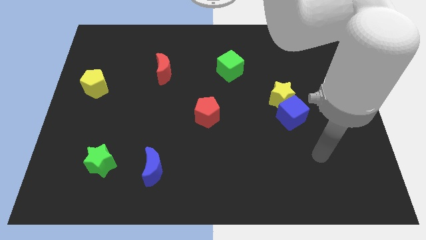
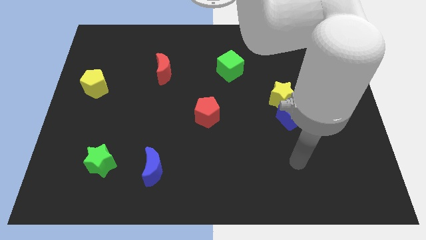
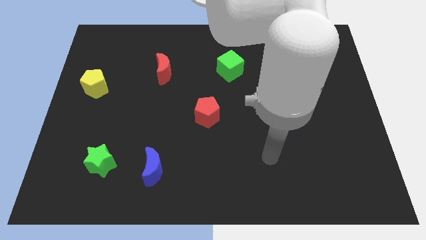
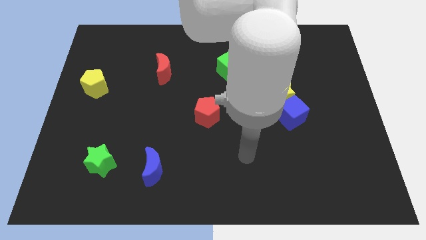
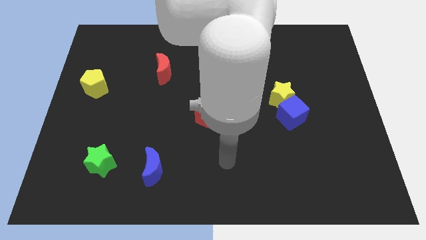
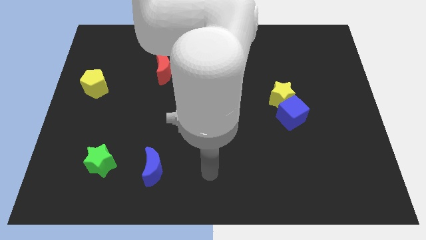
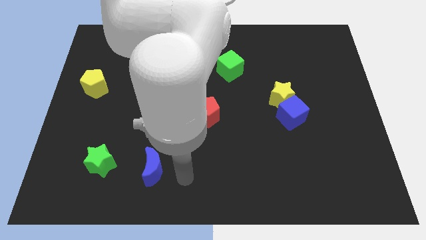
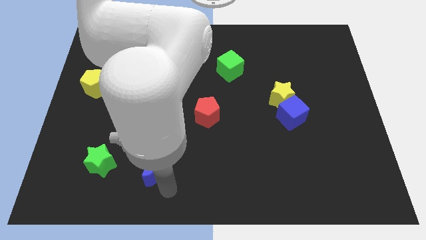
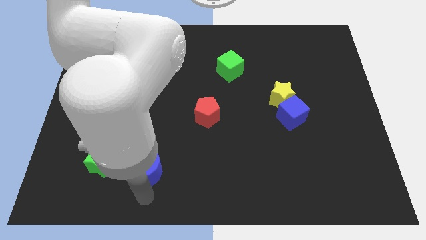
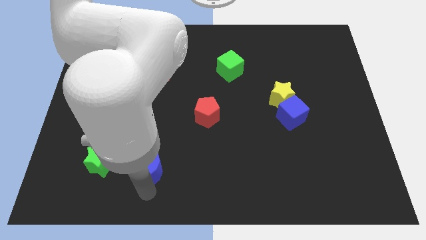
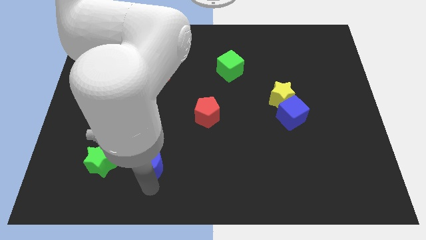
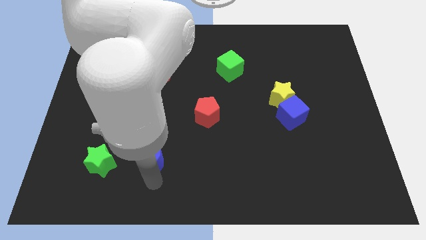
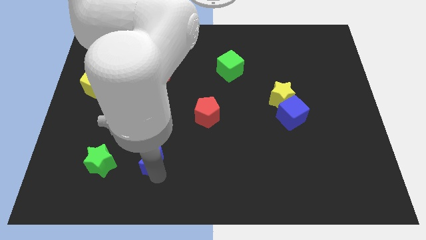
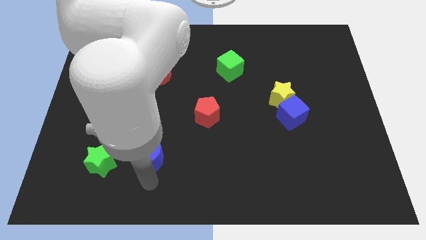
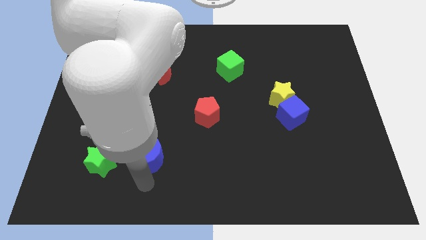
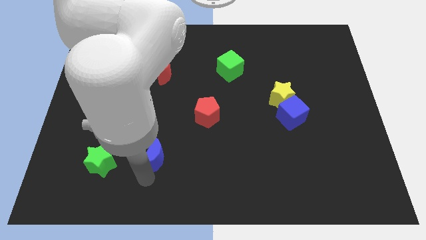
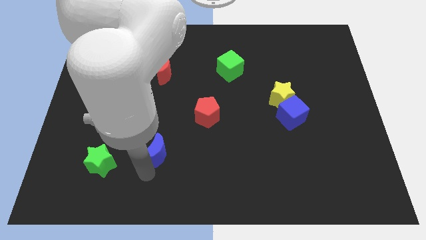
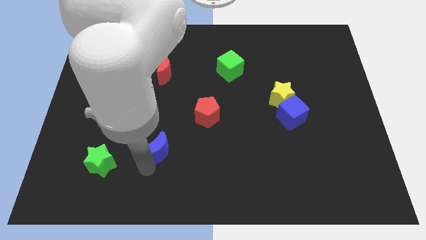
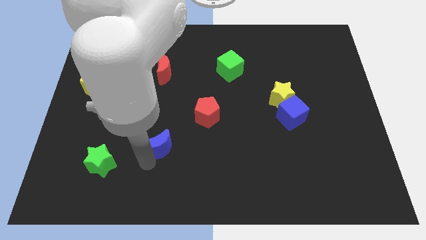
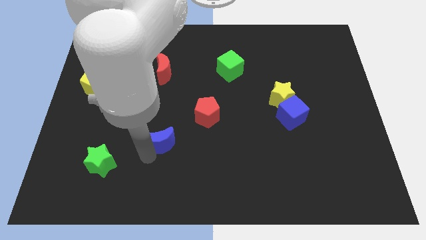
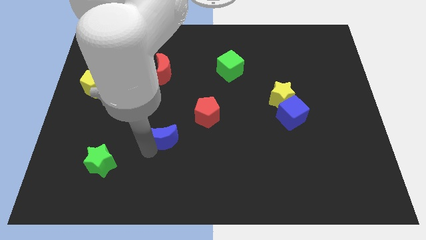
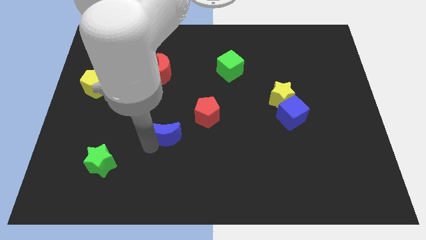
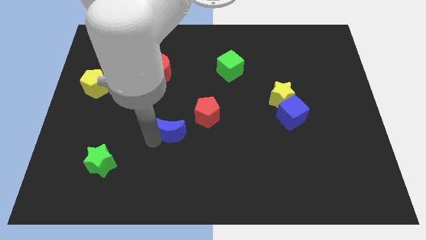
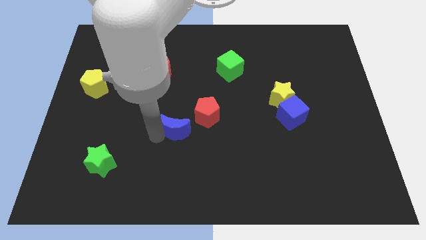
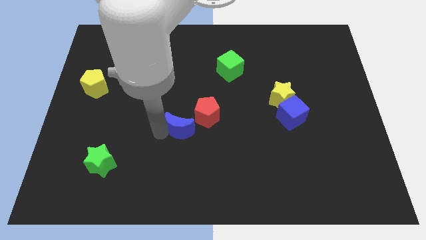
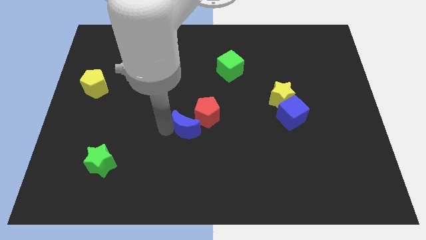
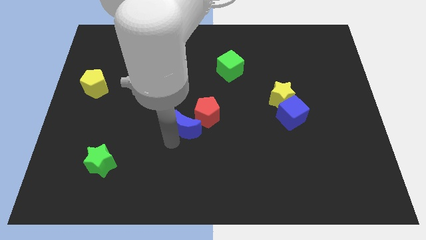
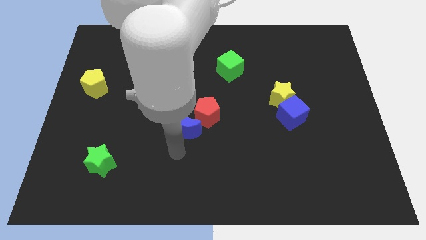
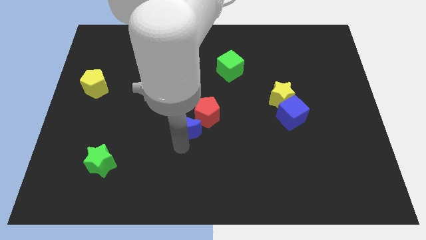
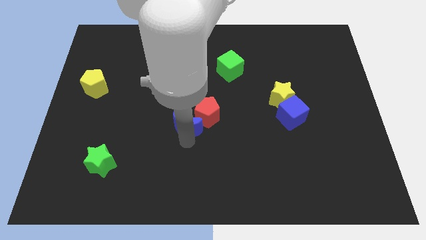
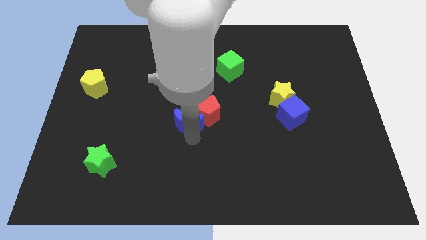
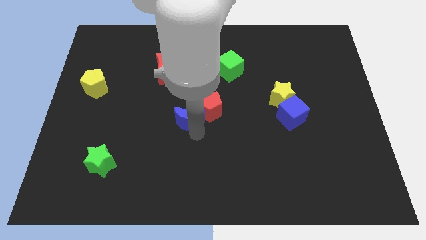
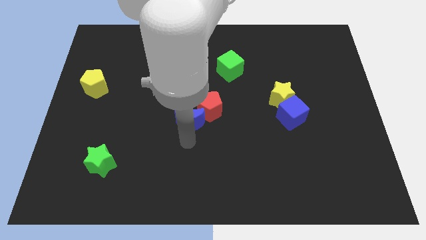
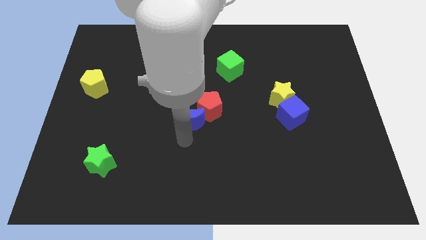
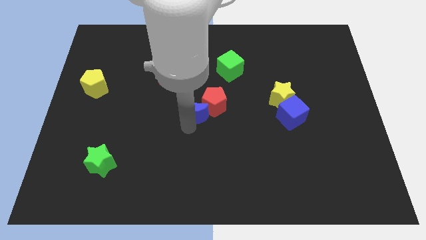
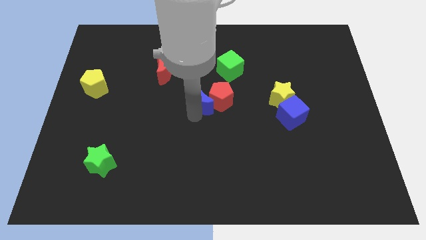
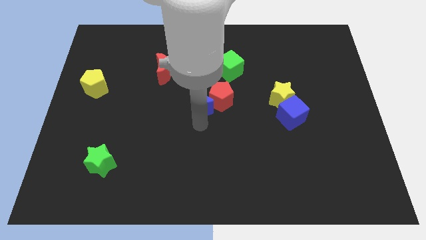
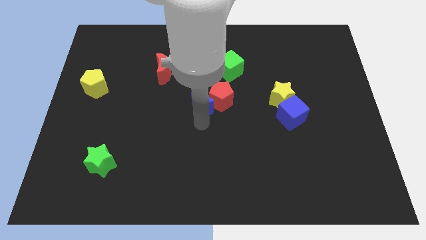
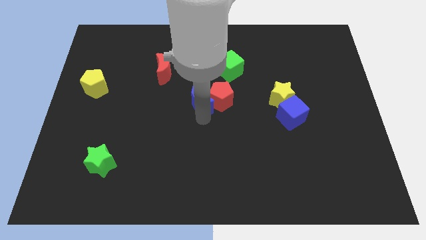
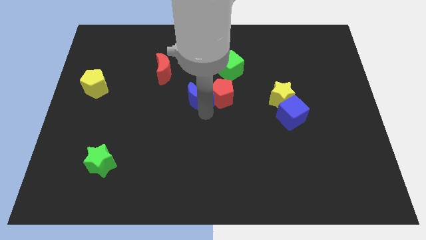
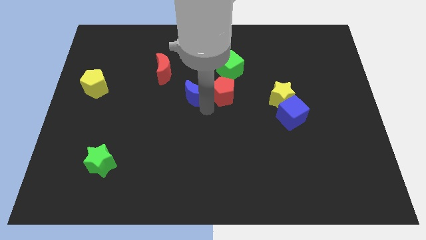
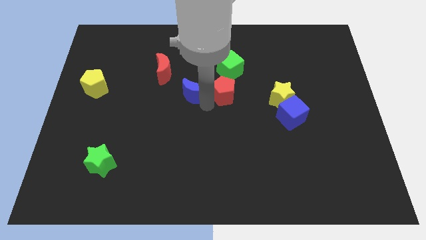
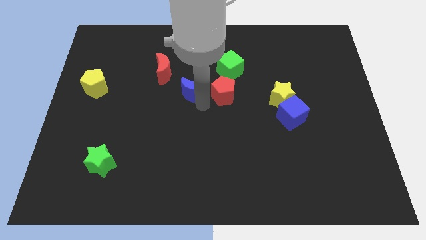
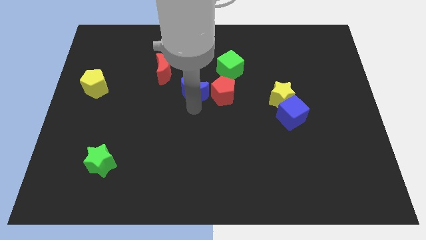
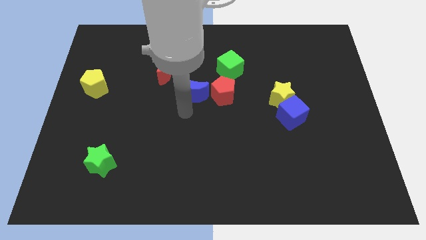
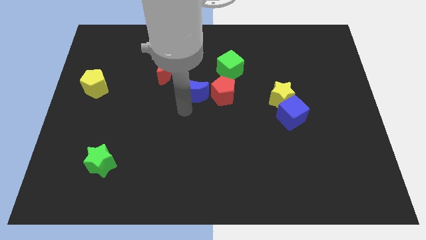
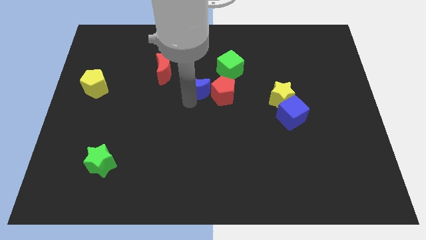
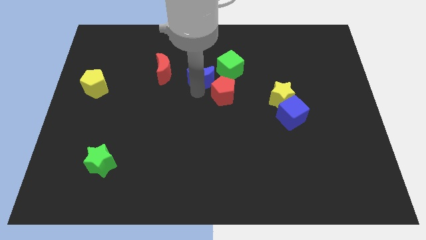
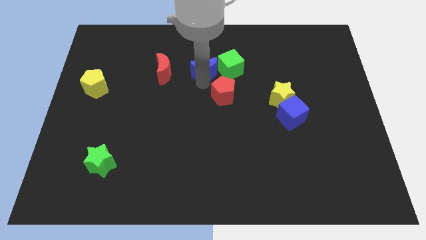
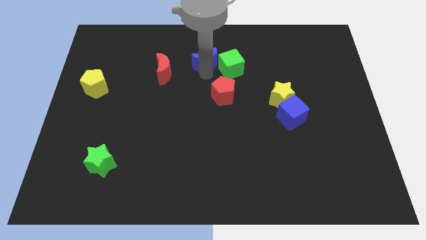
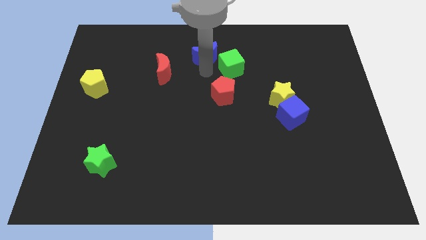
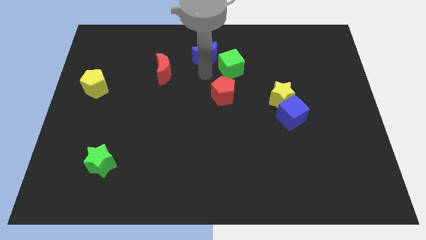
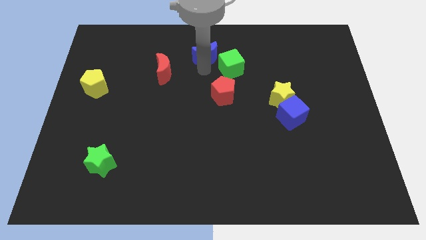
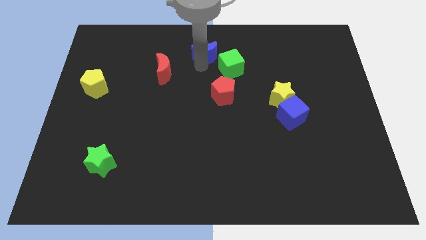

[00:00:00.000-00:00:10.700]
put the blue moon to the top

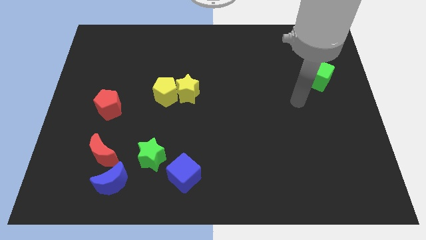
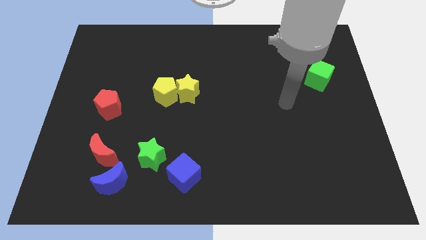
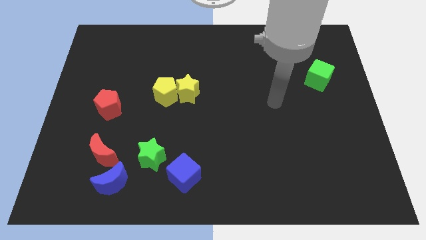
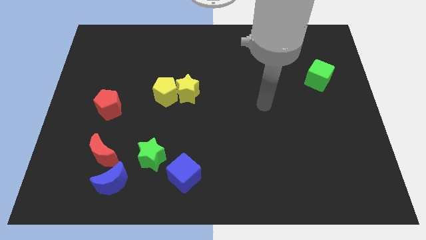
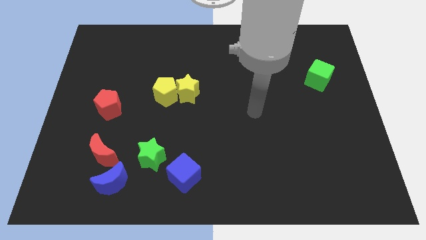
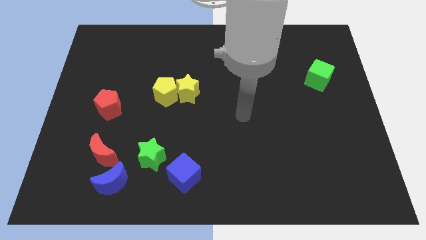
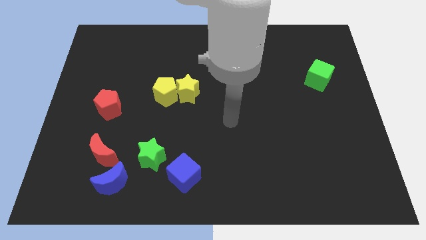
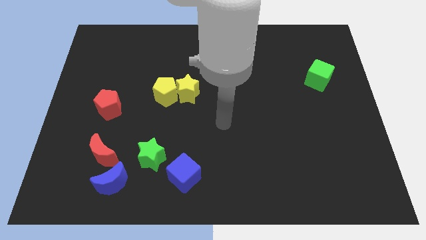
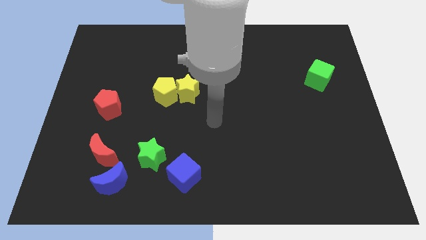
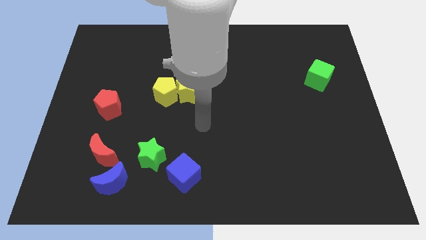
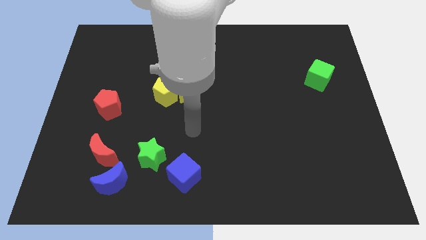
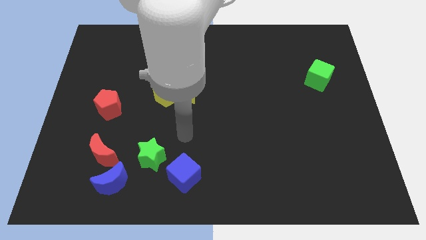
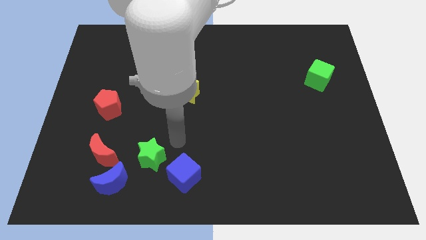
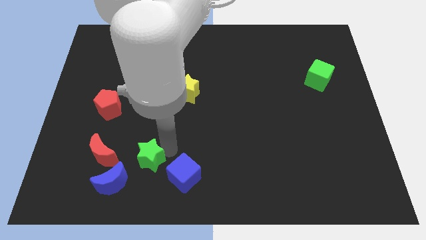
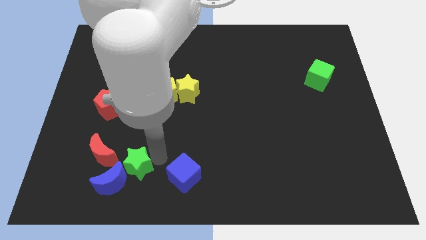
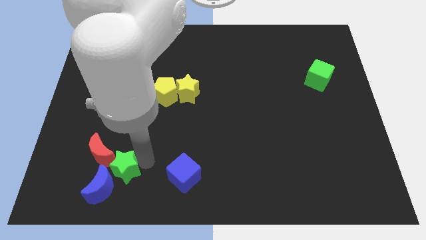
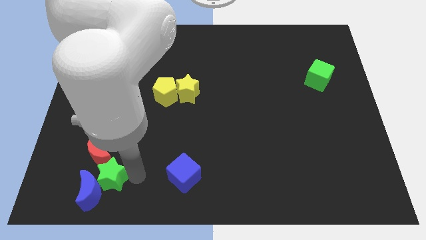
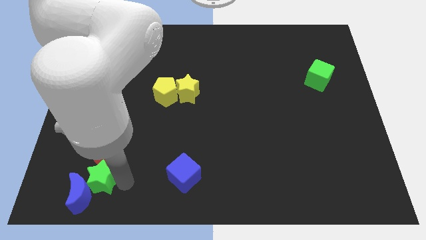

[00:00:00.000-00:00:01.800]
push the blue moon to the bottom left of the board
